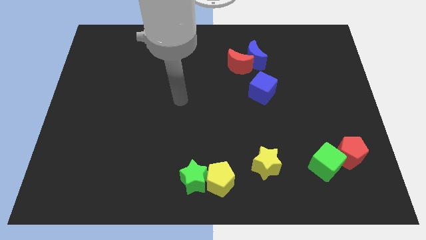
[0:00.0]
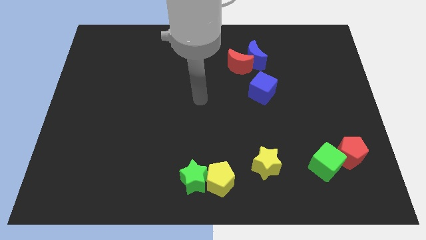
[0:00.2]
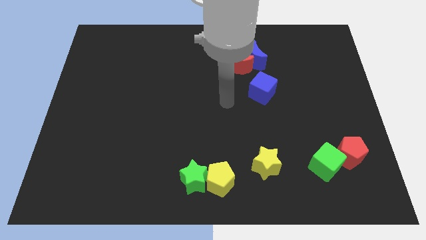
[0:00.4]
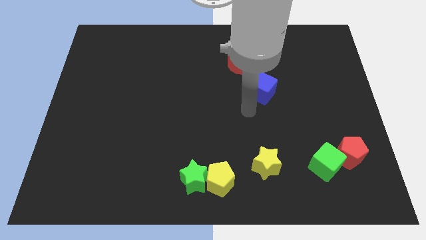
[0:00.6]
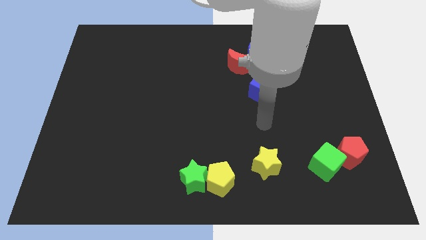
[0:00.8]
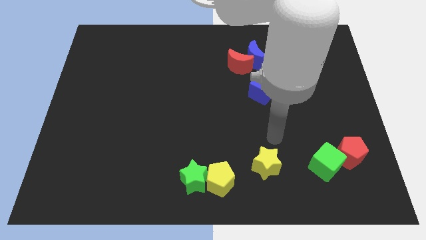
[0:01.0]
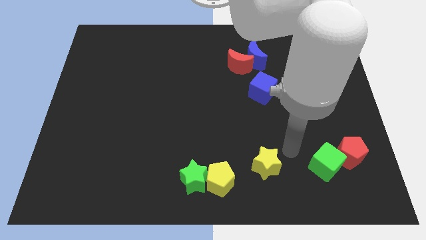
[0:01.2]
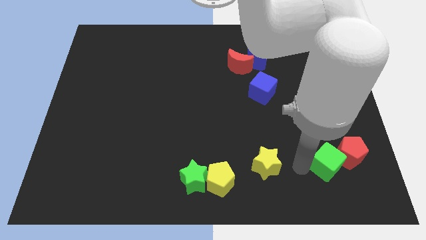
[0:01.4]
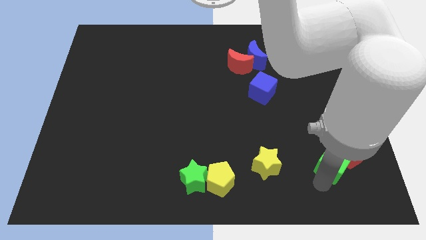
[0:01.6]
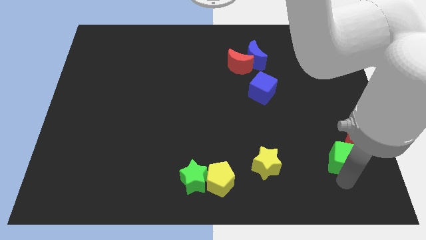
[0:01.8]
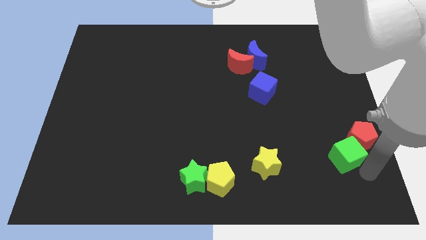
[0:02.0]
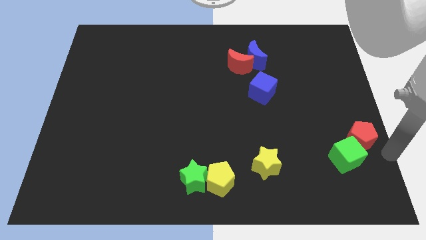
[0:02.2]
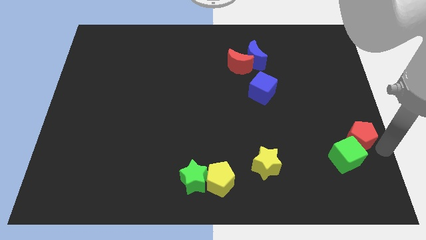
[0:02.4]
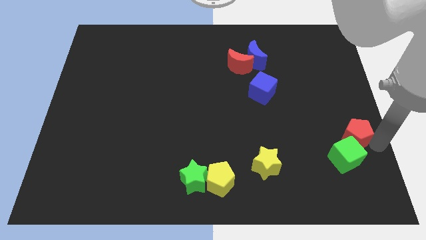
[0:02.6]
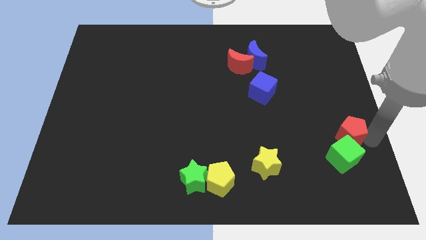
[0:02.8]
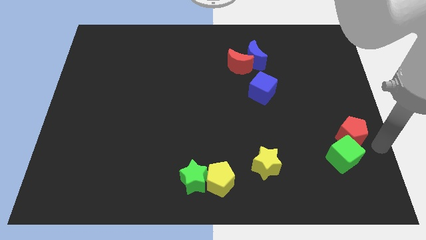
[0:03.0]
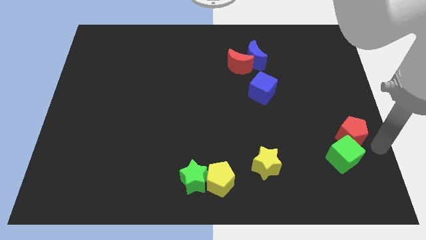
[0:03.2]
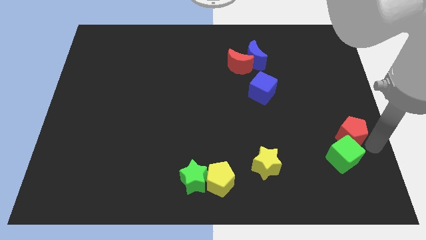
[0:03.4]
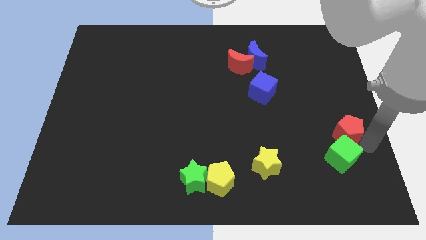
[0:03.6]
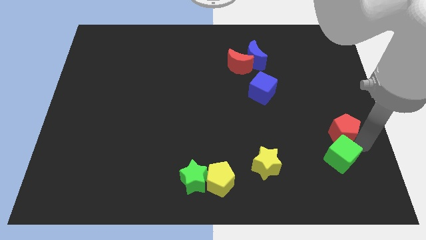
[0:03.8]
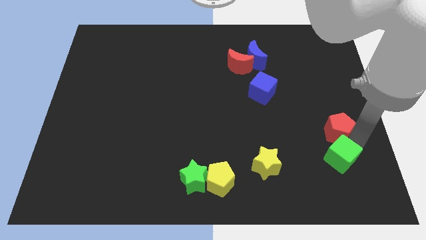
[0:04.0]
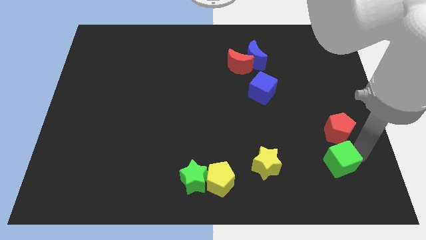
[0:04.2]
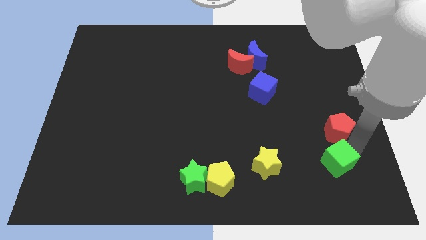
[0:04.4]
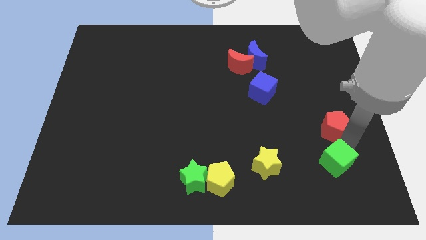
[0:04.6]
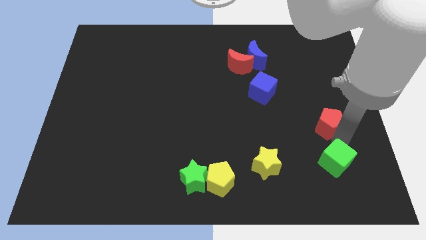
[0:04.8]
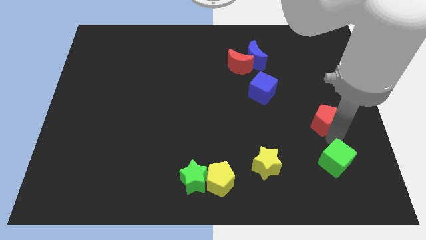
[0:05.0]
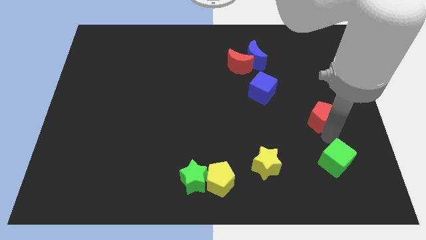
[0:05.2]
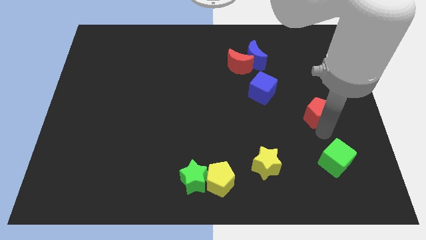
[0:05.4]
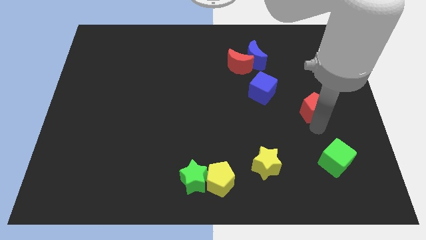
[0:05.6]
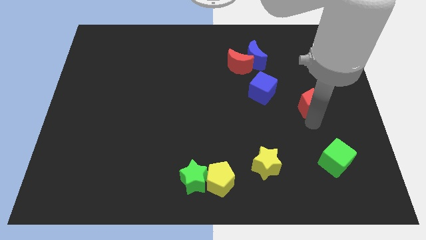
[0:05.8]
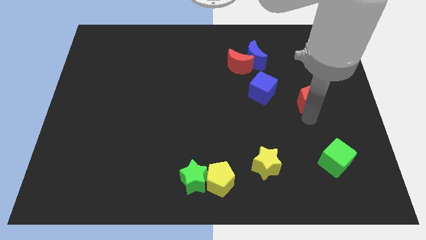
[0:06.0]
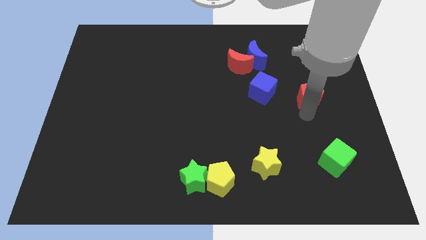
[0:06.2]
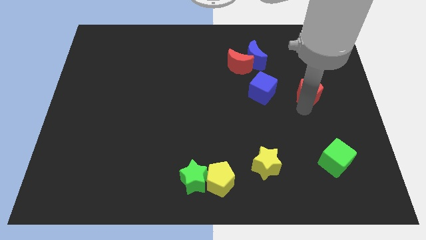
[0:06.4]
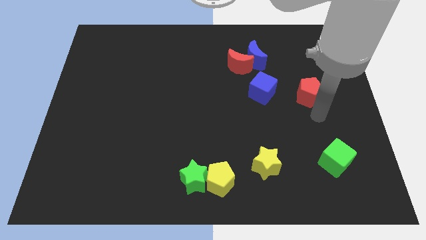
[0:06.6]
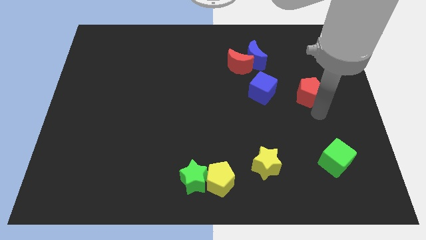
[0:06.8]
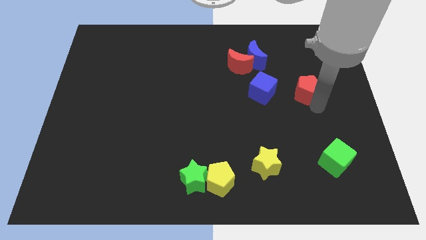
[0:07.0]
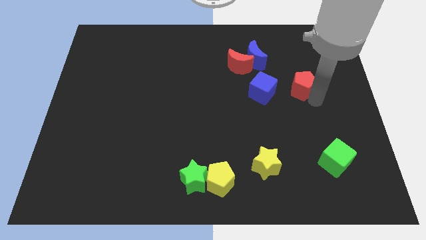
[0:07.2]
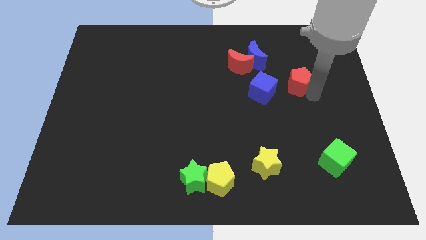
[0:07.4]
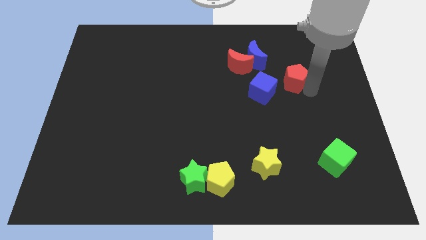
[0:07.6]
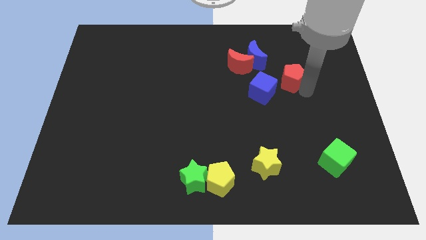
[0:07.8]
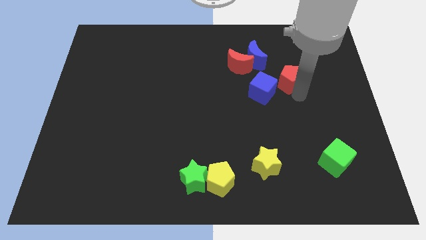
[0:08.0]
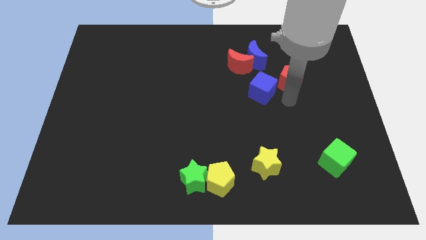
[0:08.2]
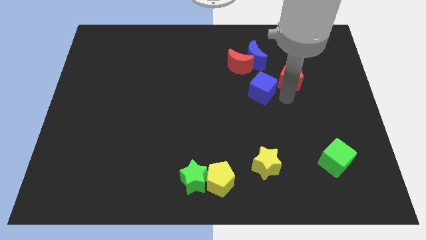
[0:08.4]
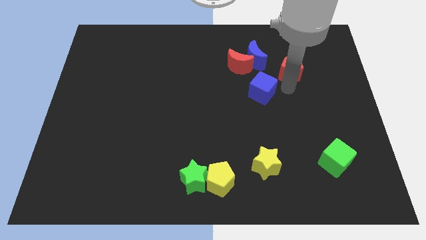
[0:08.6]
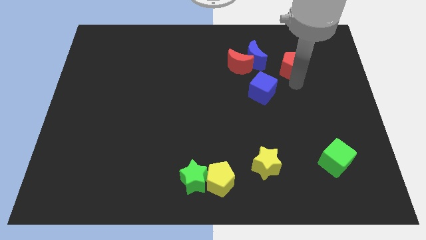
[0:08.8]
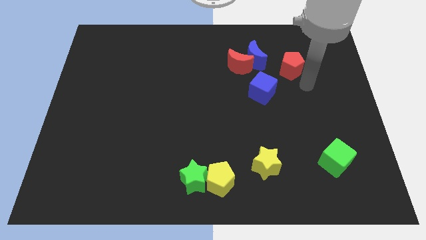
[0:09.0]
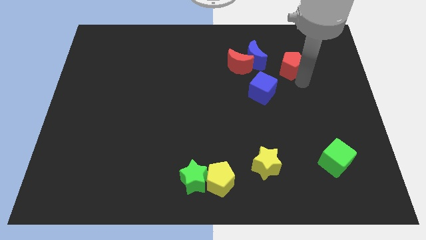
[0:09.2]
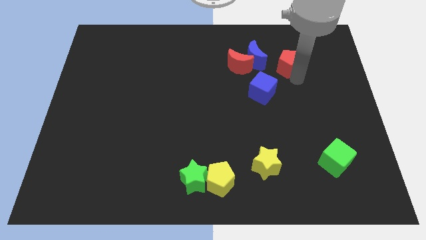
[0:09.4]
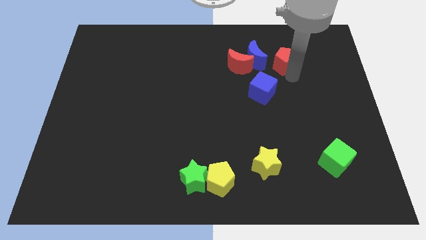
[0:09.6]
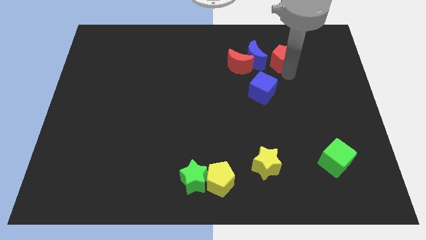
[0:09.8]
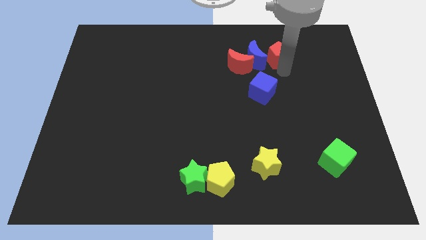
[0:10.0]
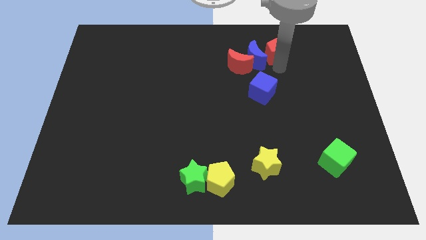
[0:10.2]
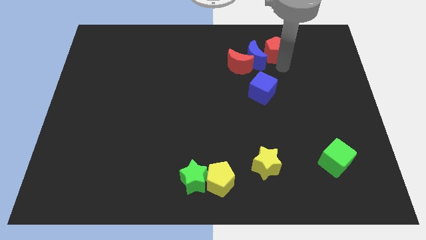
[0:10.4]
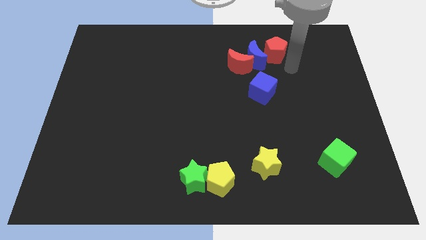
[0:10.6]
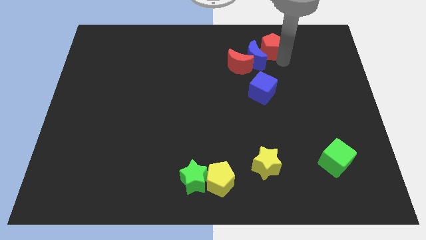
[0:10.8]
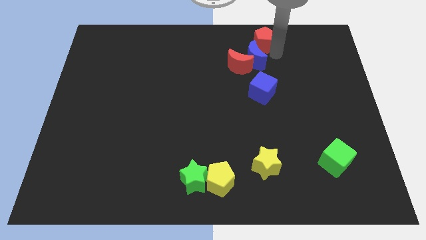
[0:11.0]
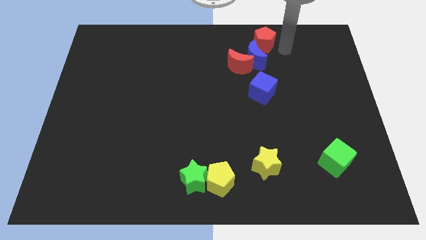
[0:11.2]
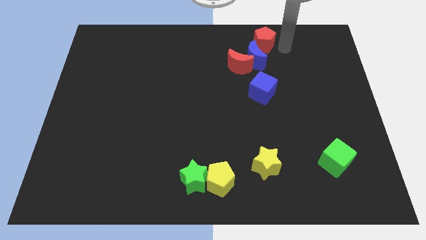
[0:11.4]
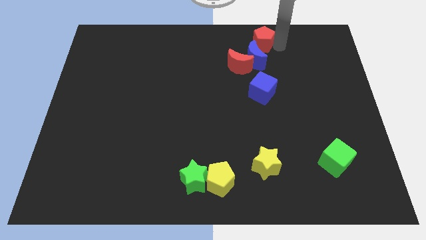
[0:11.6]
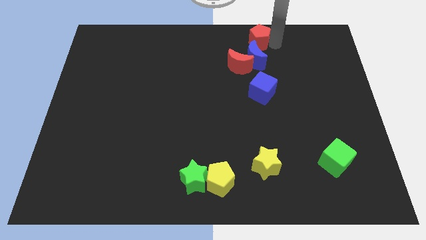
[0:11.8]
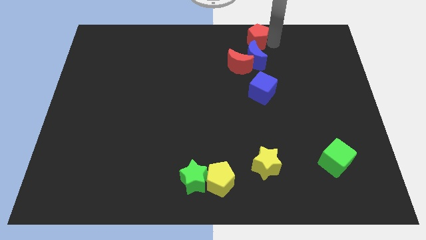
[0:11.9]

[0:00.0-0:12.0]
push the red pentagon to the top
